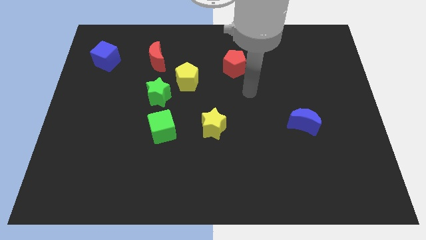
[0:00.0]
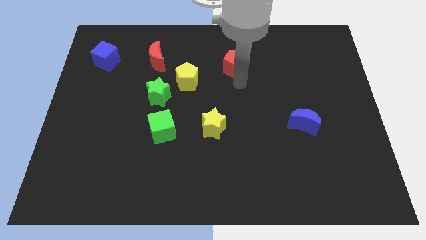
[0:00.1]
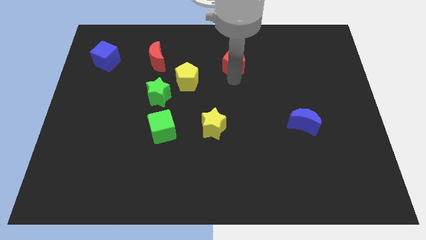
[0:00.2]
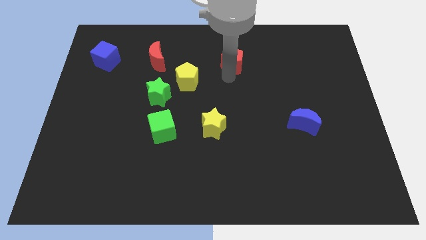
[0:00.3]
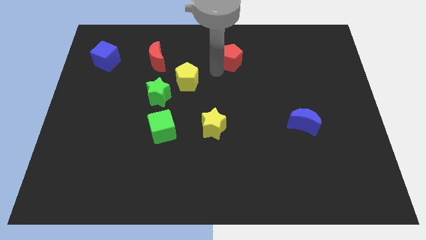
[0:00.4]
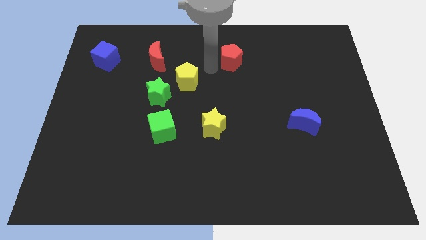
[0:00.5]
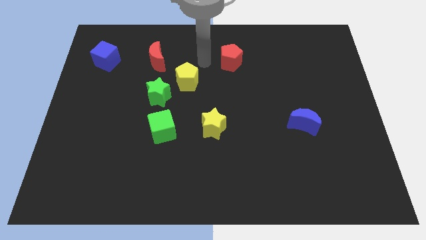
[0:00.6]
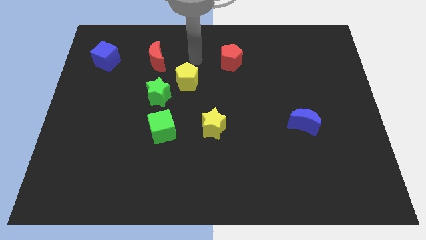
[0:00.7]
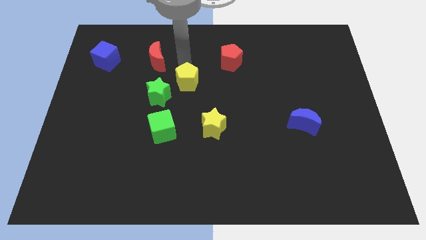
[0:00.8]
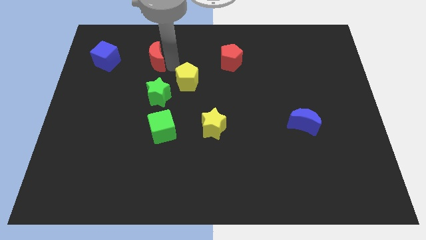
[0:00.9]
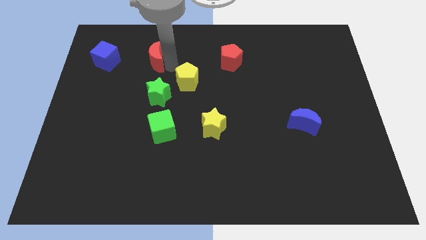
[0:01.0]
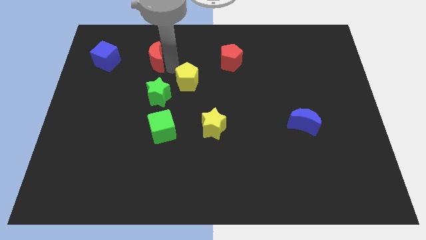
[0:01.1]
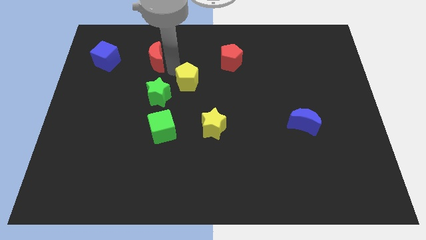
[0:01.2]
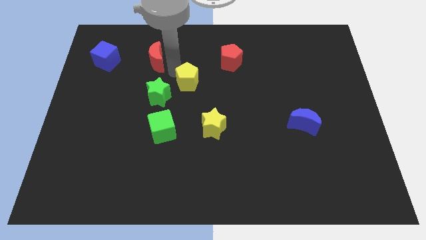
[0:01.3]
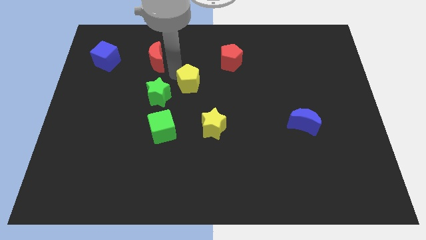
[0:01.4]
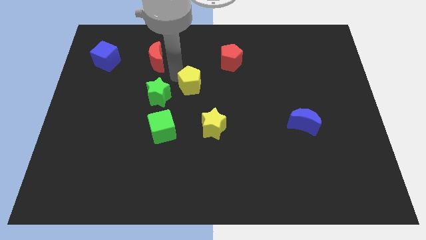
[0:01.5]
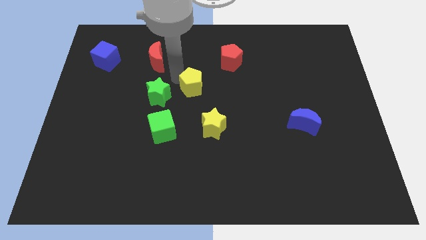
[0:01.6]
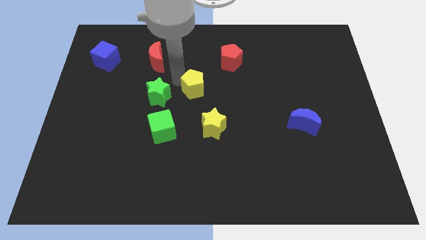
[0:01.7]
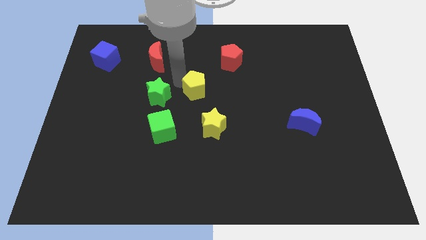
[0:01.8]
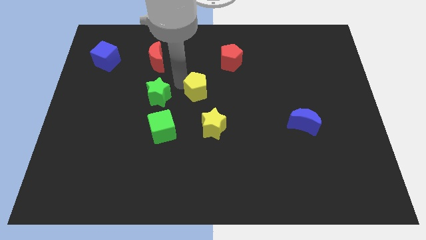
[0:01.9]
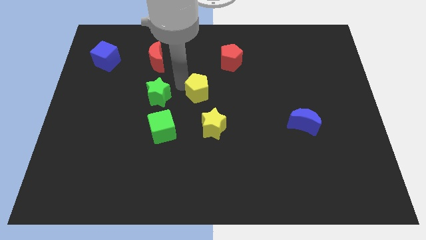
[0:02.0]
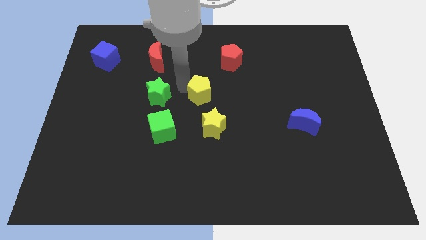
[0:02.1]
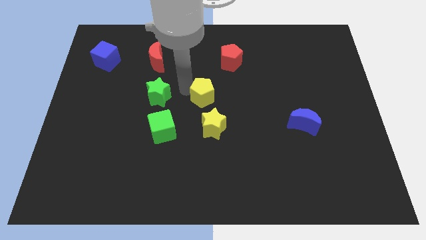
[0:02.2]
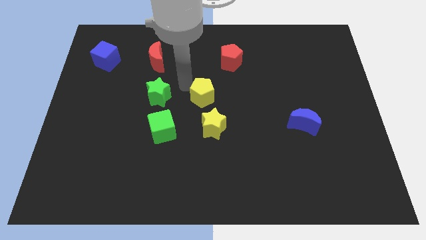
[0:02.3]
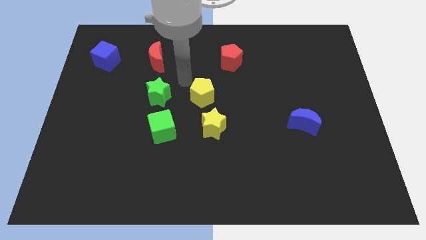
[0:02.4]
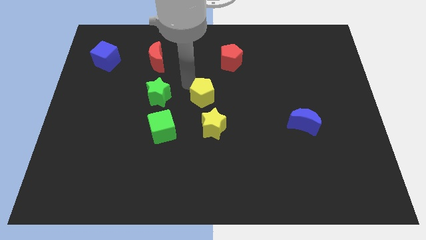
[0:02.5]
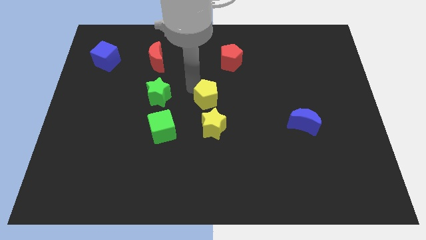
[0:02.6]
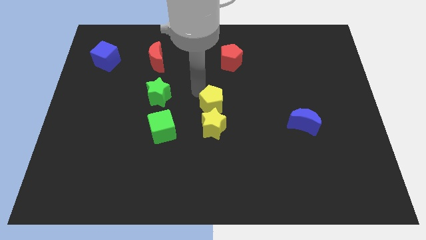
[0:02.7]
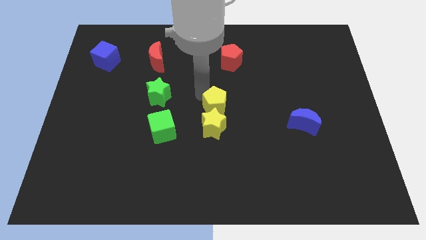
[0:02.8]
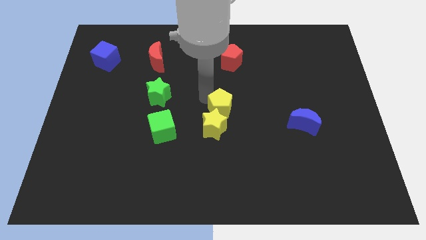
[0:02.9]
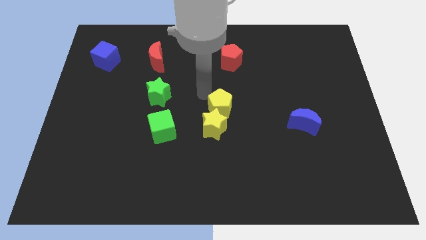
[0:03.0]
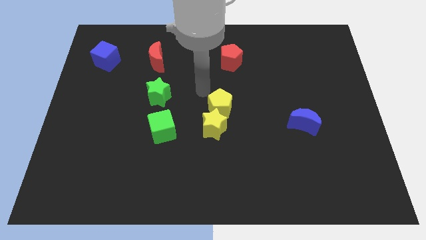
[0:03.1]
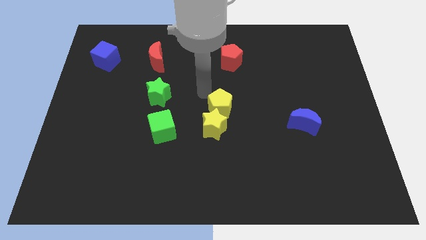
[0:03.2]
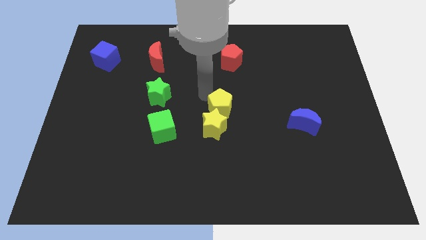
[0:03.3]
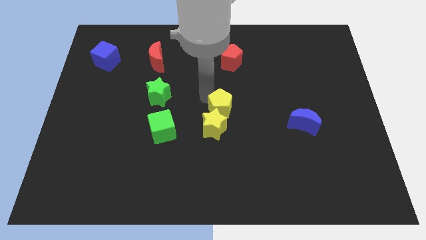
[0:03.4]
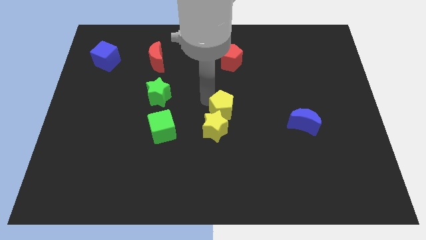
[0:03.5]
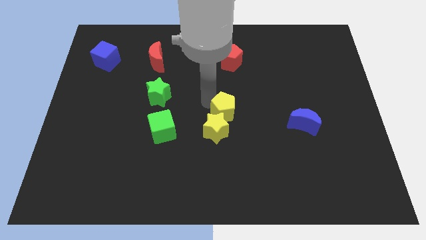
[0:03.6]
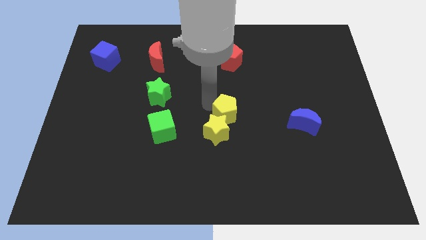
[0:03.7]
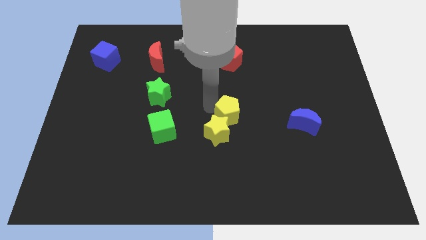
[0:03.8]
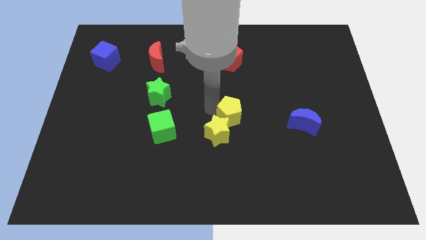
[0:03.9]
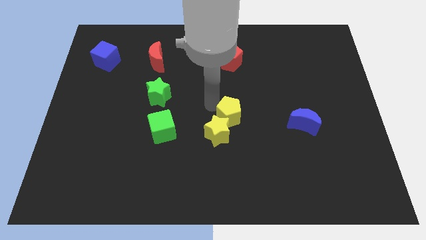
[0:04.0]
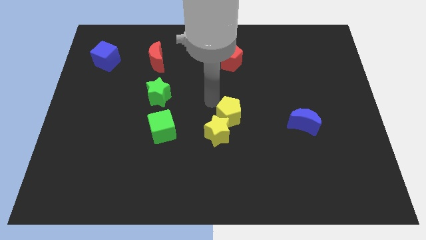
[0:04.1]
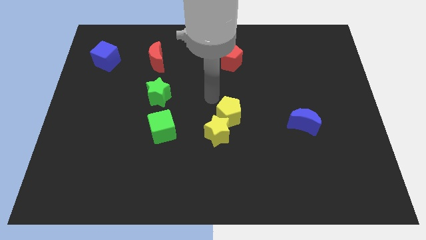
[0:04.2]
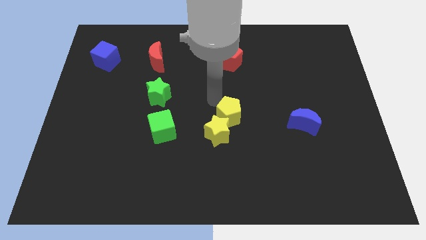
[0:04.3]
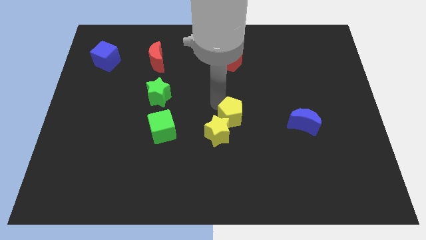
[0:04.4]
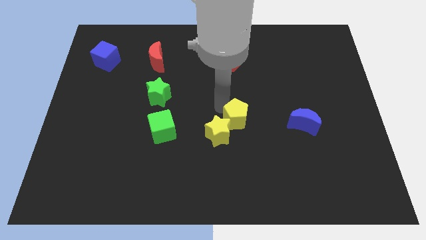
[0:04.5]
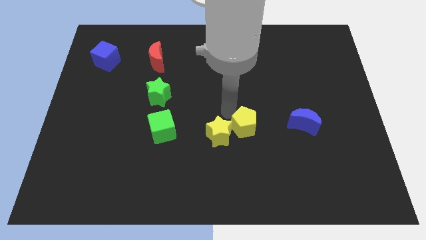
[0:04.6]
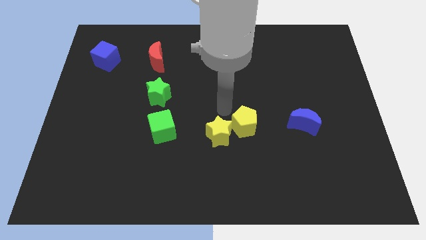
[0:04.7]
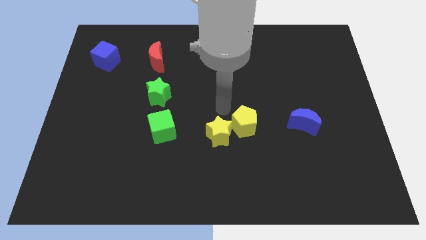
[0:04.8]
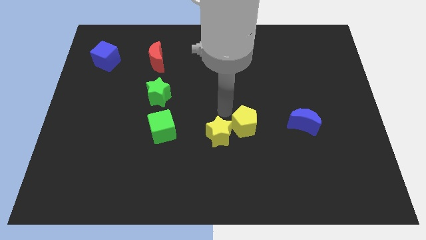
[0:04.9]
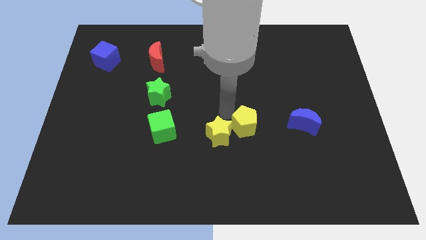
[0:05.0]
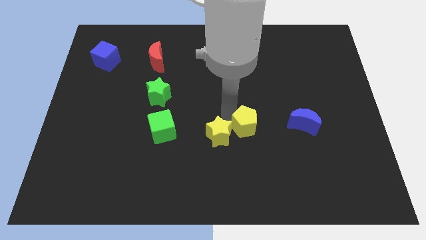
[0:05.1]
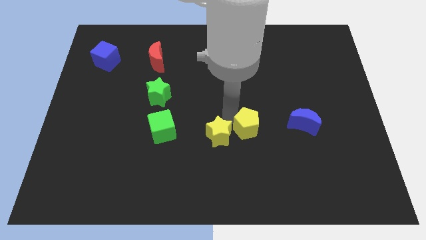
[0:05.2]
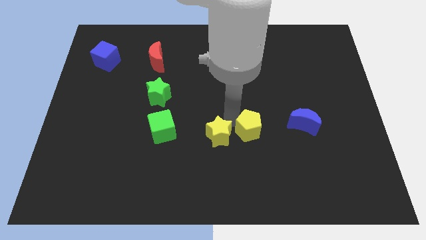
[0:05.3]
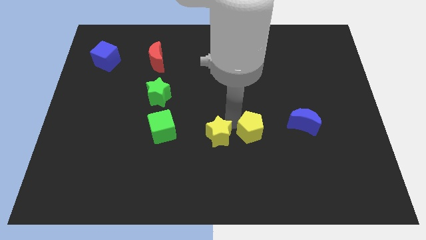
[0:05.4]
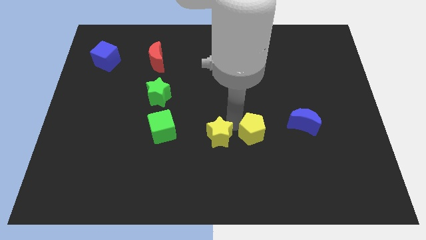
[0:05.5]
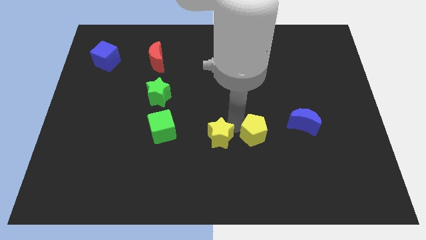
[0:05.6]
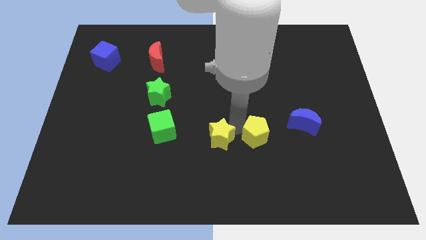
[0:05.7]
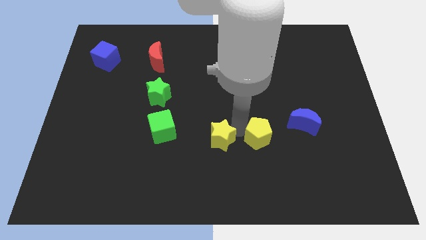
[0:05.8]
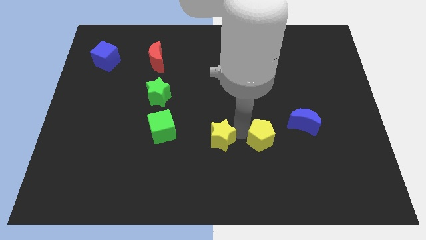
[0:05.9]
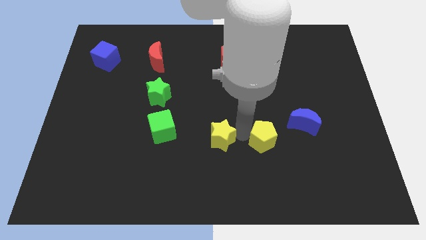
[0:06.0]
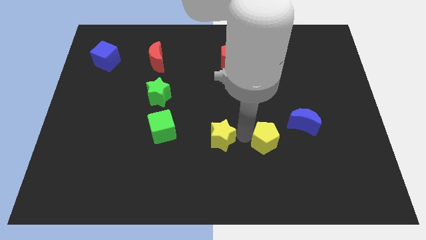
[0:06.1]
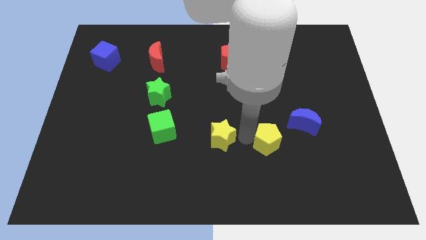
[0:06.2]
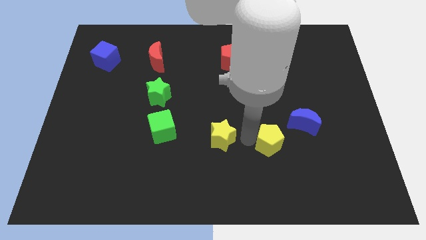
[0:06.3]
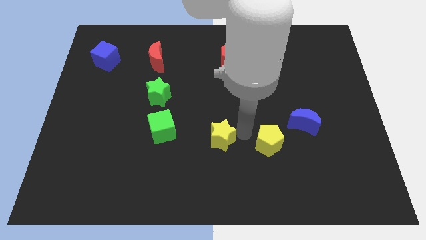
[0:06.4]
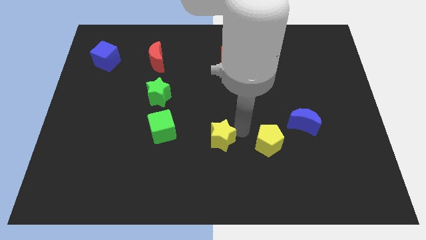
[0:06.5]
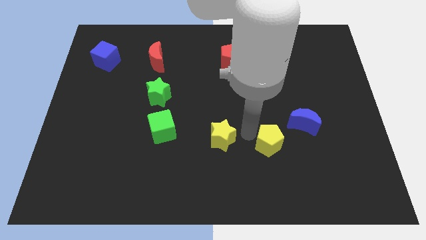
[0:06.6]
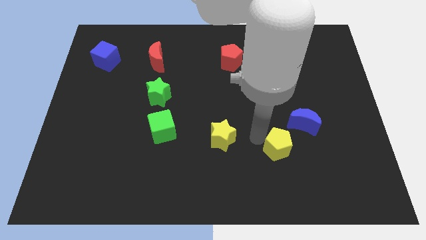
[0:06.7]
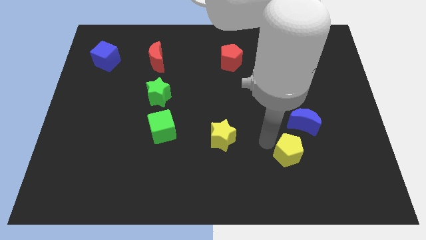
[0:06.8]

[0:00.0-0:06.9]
move the yellow pentagon to the bottom side of the blue moon

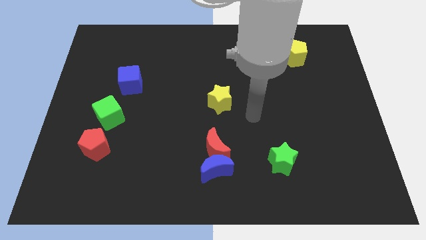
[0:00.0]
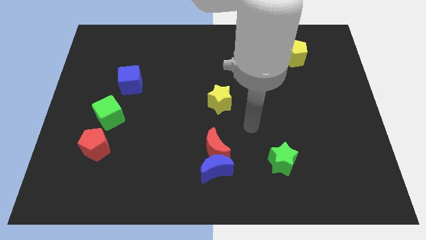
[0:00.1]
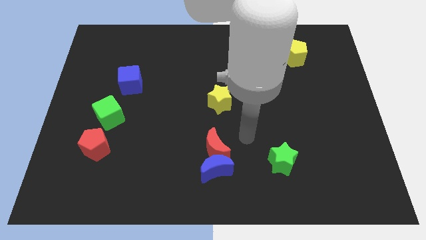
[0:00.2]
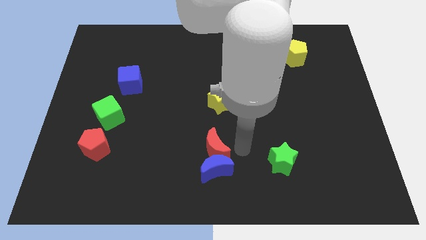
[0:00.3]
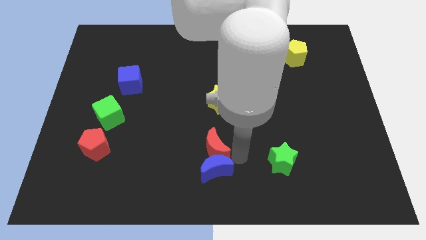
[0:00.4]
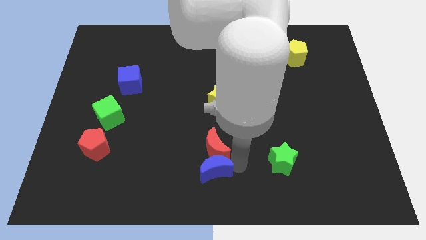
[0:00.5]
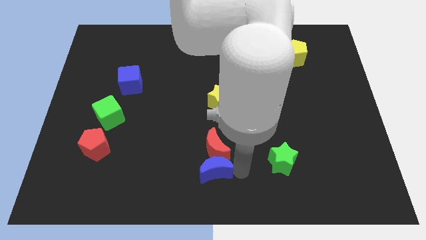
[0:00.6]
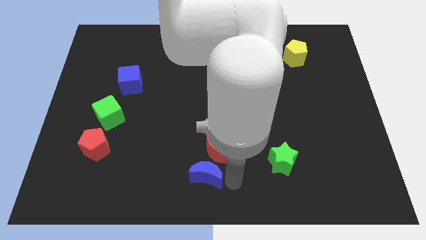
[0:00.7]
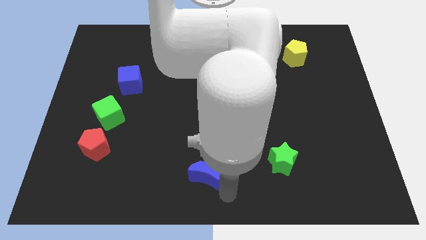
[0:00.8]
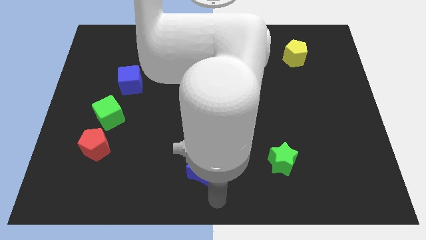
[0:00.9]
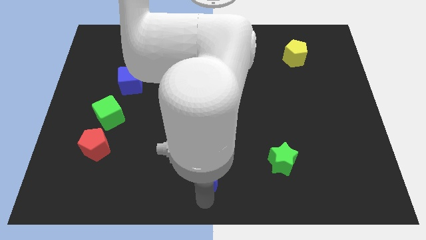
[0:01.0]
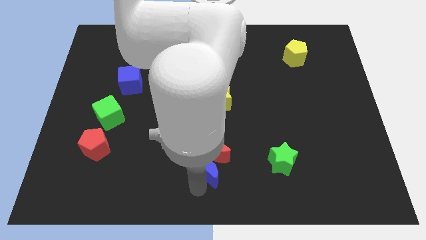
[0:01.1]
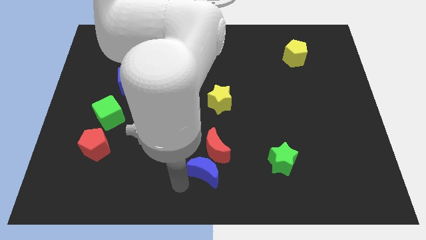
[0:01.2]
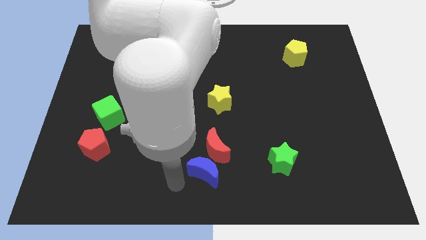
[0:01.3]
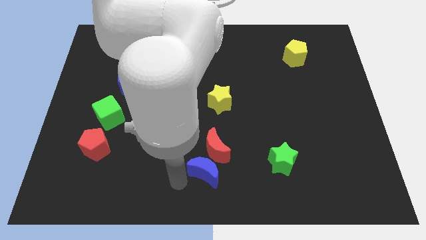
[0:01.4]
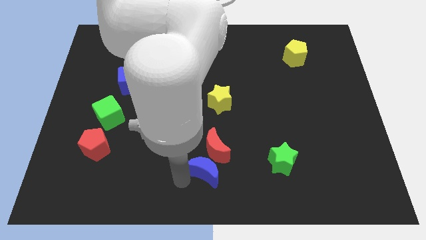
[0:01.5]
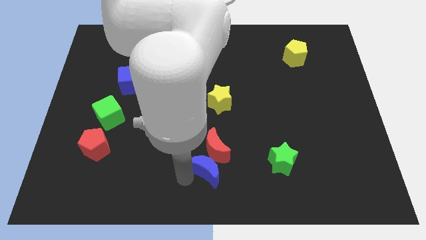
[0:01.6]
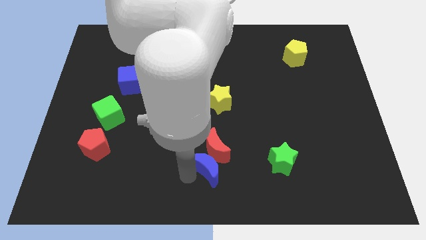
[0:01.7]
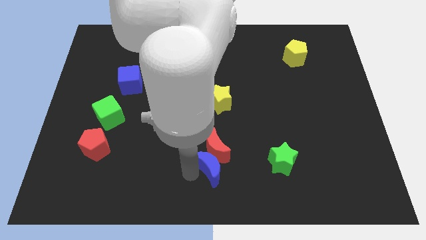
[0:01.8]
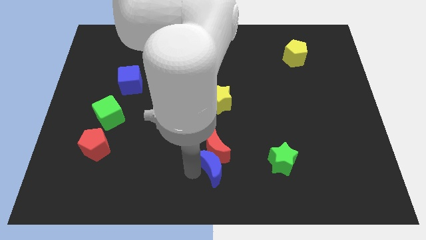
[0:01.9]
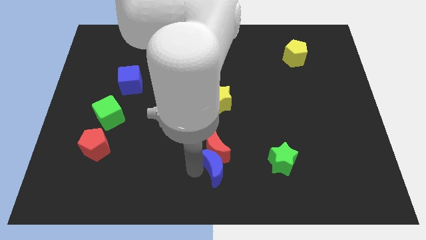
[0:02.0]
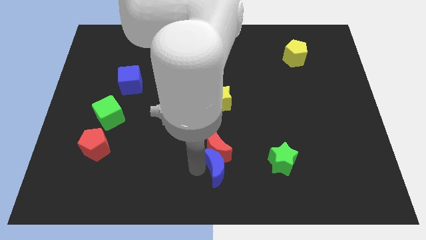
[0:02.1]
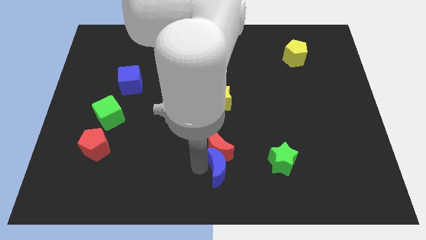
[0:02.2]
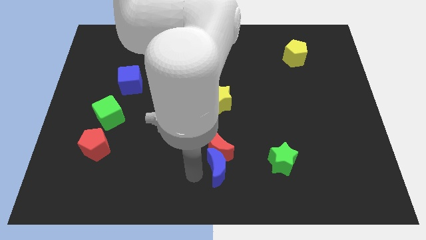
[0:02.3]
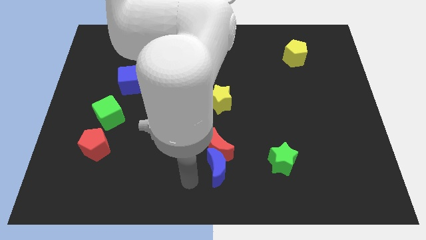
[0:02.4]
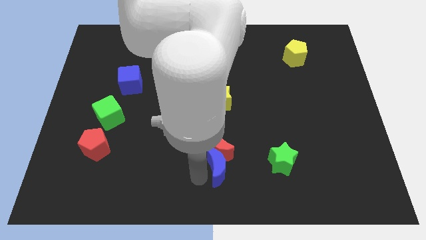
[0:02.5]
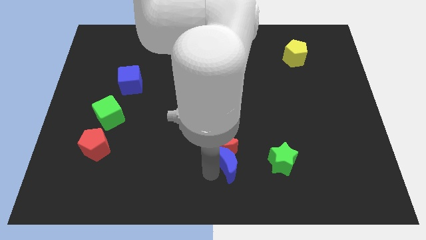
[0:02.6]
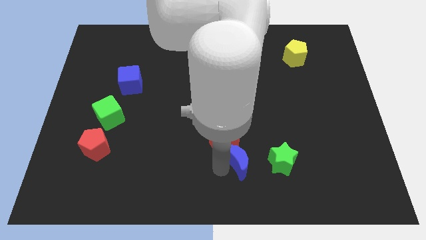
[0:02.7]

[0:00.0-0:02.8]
put the blue moon just right of the red moon
